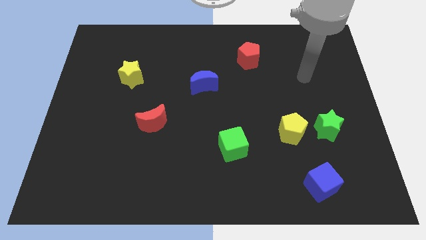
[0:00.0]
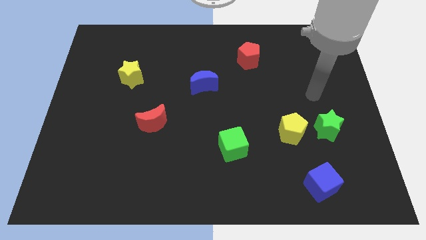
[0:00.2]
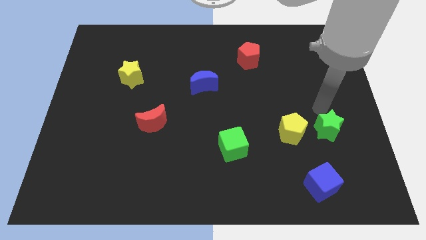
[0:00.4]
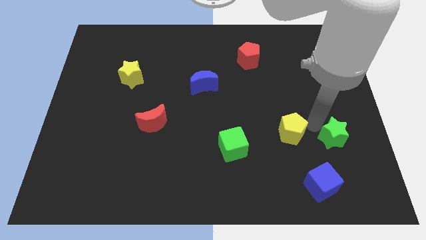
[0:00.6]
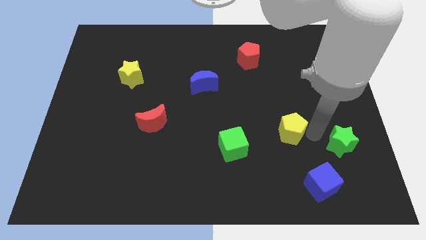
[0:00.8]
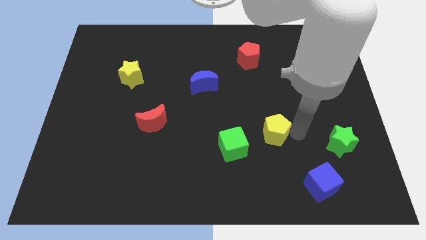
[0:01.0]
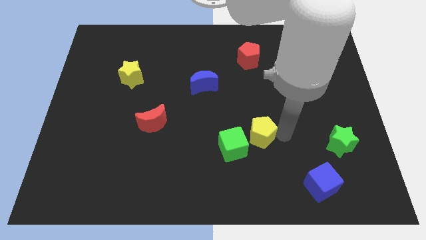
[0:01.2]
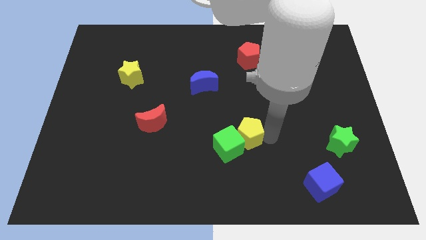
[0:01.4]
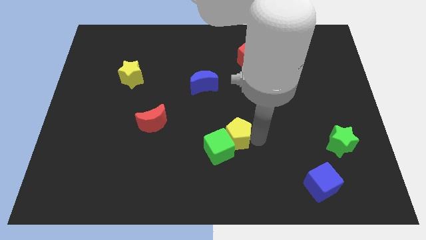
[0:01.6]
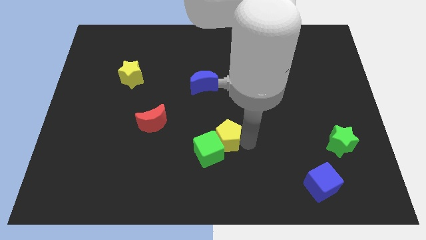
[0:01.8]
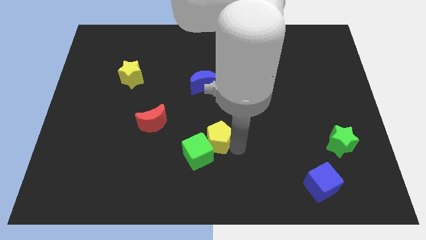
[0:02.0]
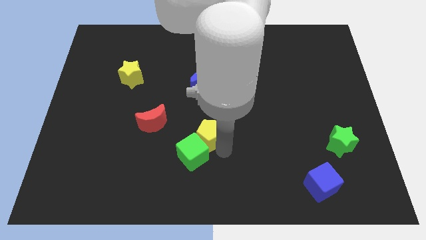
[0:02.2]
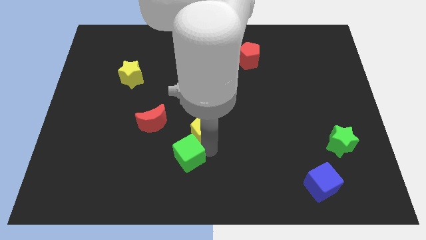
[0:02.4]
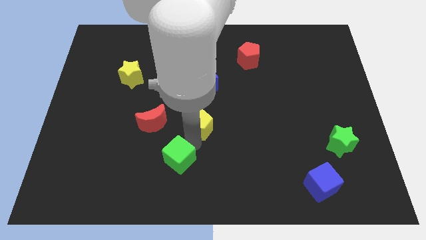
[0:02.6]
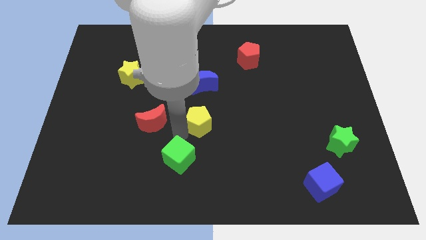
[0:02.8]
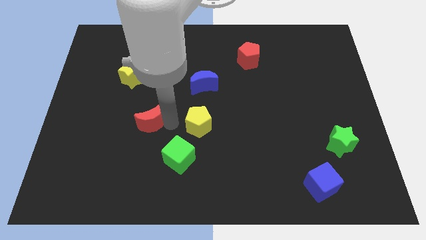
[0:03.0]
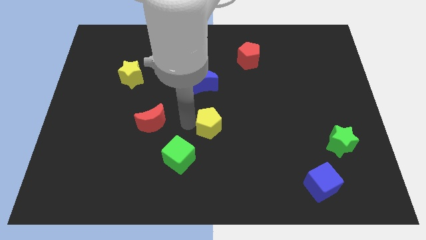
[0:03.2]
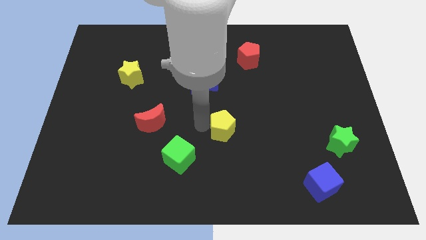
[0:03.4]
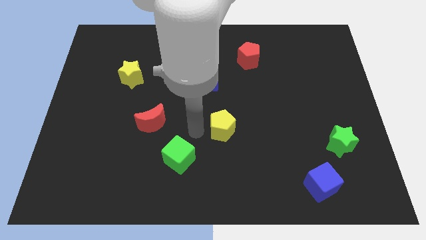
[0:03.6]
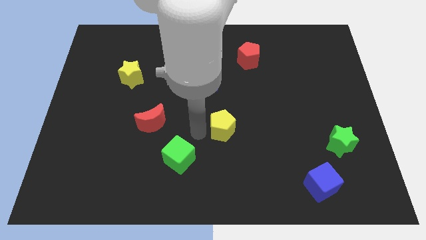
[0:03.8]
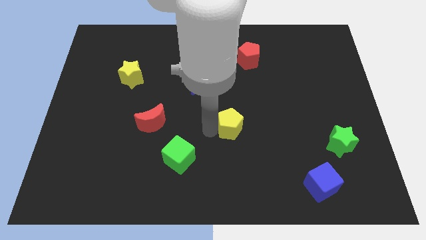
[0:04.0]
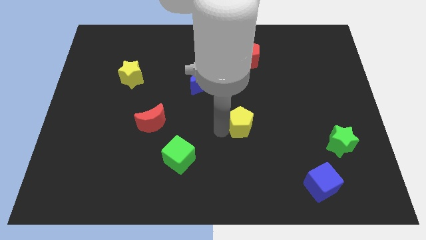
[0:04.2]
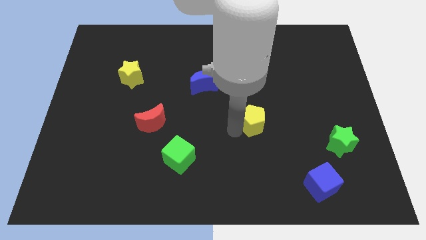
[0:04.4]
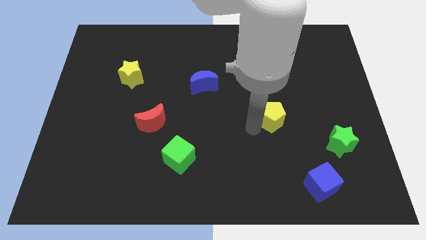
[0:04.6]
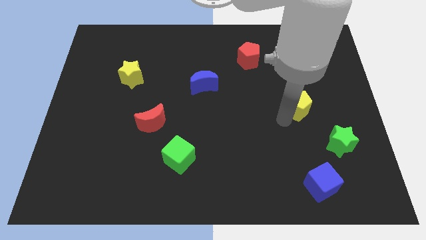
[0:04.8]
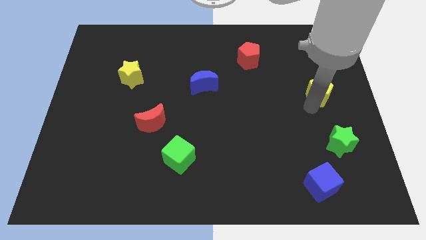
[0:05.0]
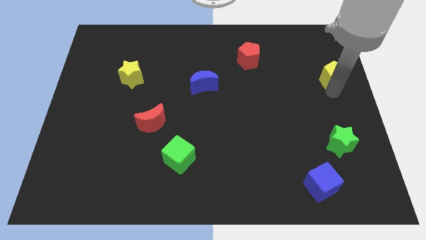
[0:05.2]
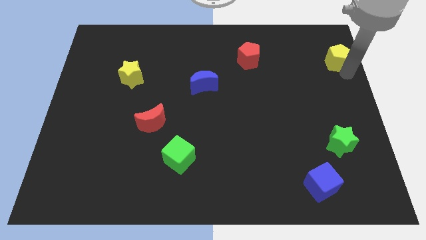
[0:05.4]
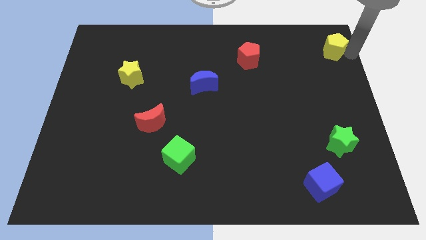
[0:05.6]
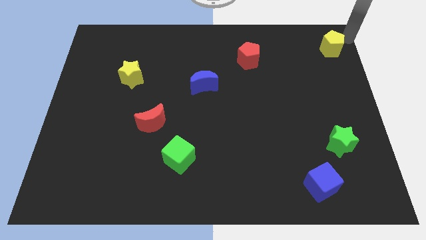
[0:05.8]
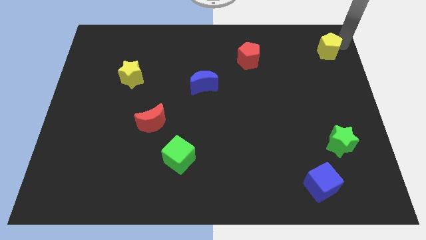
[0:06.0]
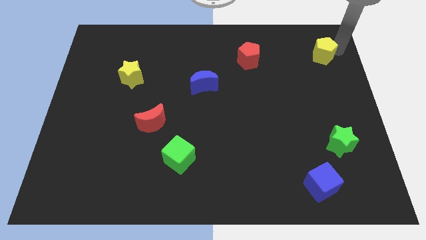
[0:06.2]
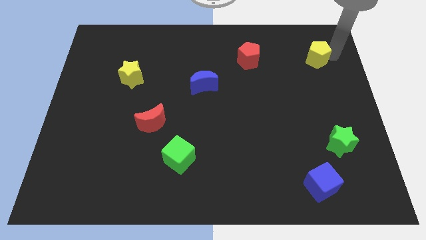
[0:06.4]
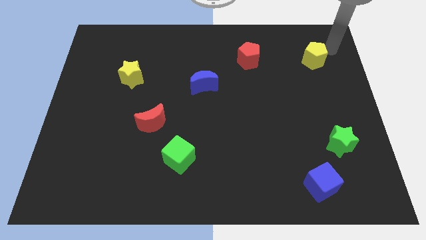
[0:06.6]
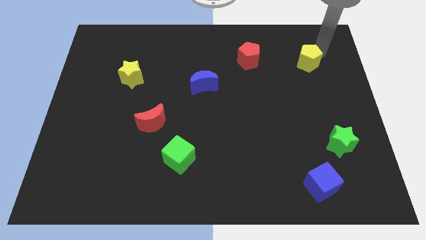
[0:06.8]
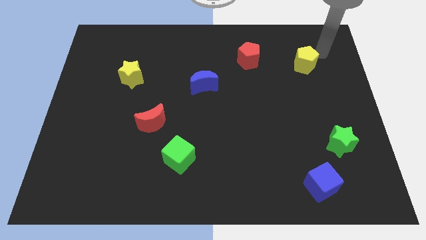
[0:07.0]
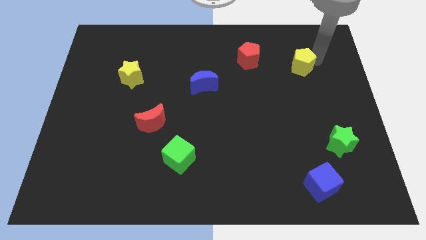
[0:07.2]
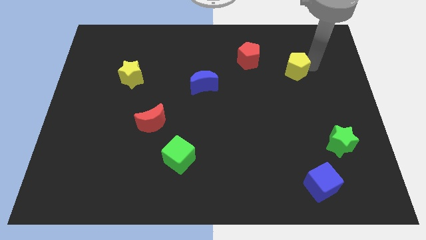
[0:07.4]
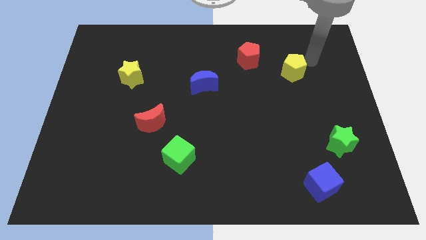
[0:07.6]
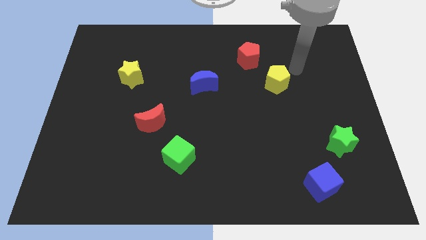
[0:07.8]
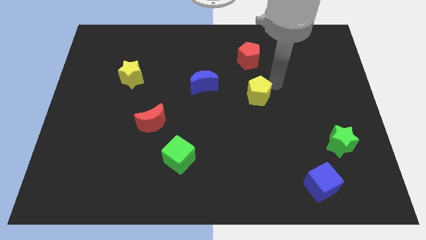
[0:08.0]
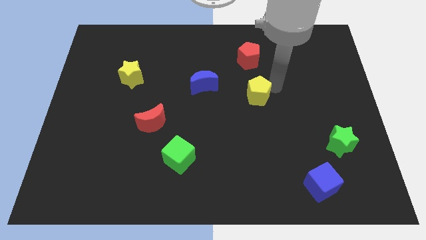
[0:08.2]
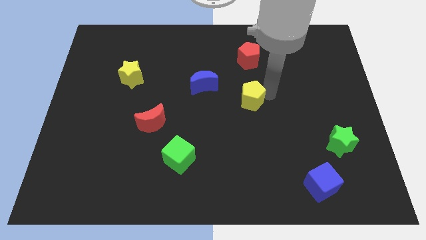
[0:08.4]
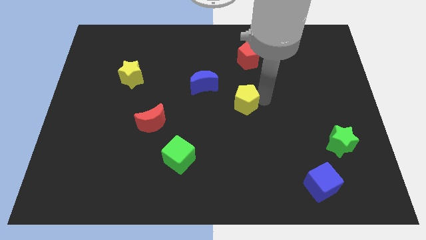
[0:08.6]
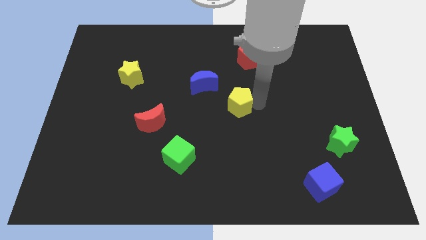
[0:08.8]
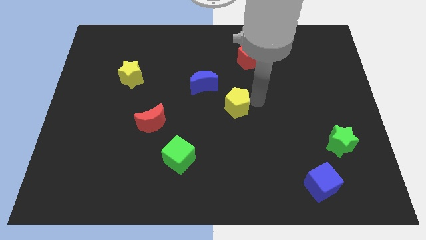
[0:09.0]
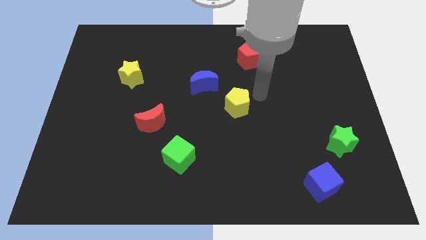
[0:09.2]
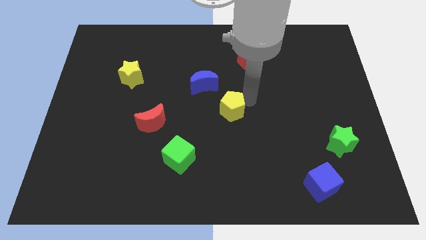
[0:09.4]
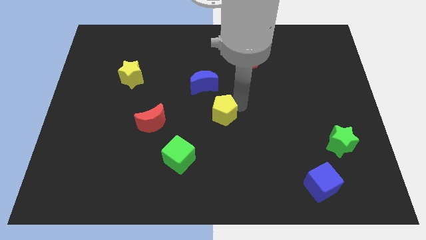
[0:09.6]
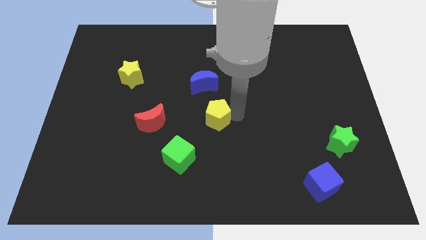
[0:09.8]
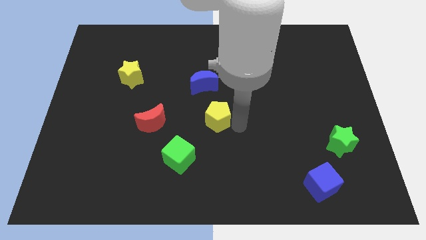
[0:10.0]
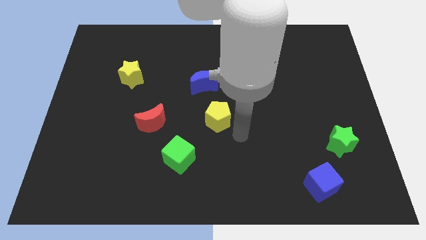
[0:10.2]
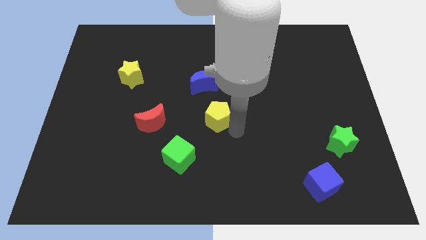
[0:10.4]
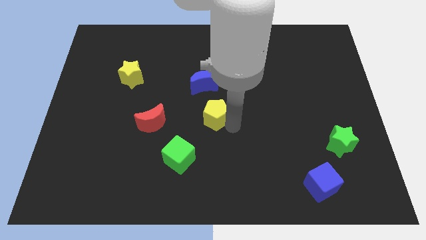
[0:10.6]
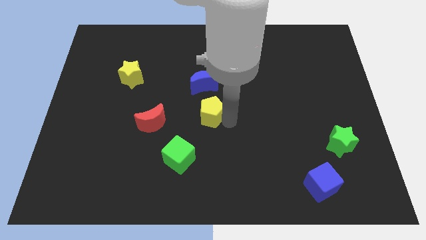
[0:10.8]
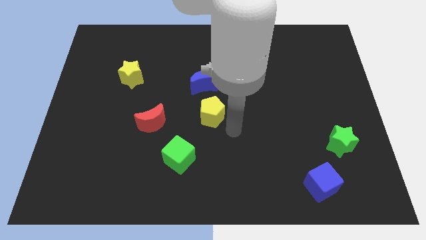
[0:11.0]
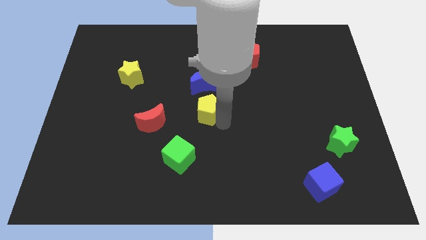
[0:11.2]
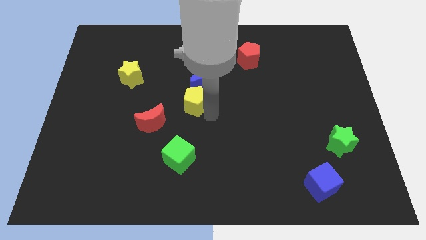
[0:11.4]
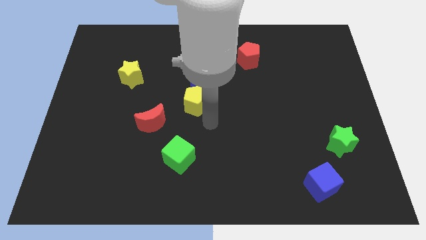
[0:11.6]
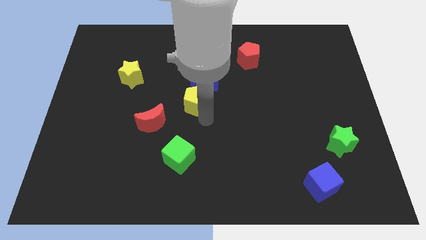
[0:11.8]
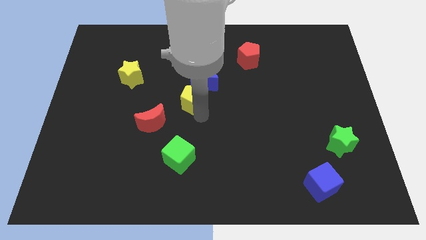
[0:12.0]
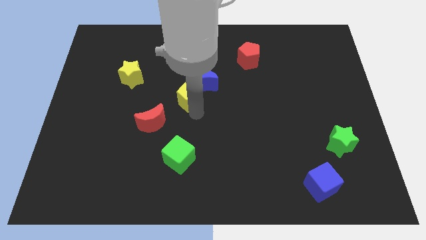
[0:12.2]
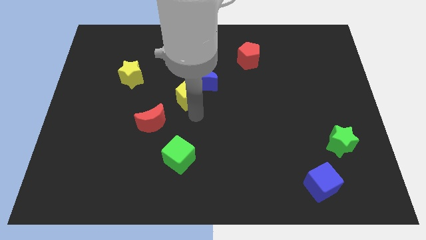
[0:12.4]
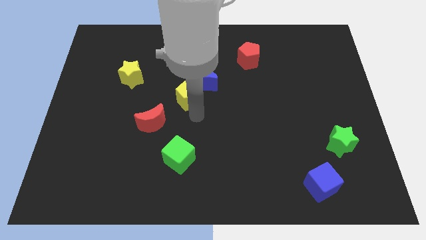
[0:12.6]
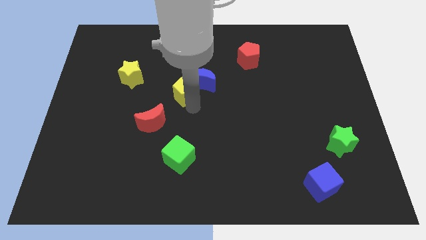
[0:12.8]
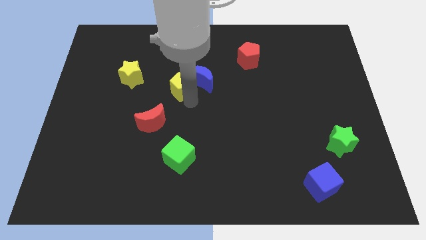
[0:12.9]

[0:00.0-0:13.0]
slide the yellow pentagon right of the yellow star
